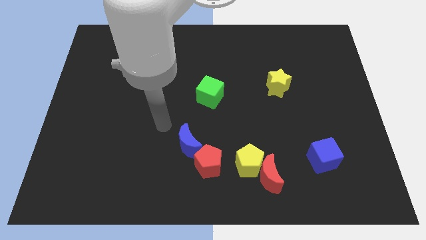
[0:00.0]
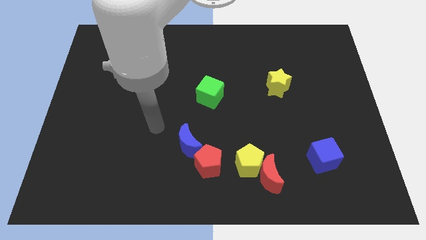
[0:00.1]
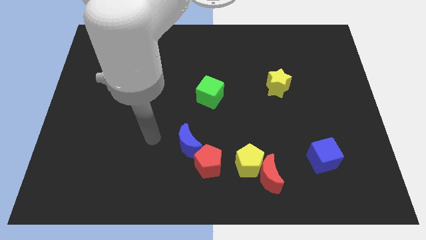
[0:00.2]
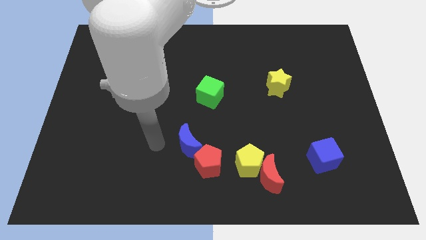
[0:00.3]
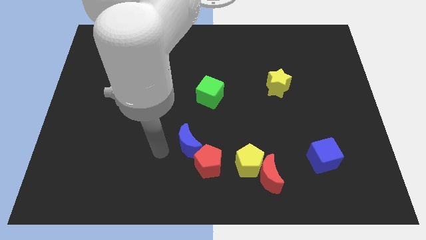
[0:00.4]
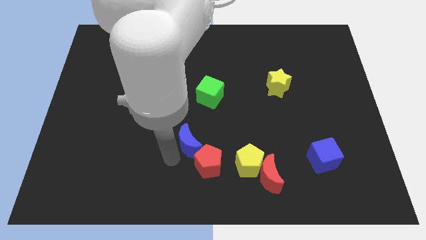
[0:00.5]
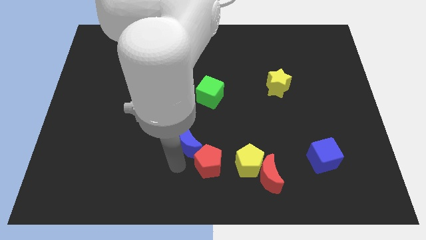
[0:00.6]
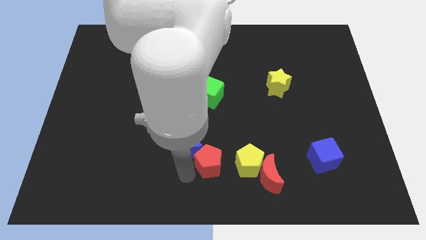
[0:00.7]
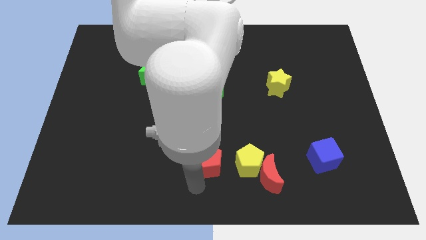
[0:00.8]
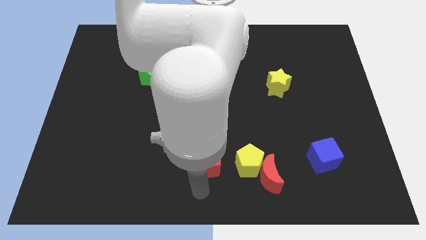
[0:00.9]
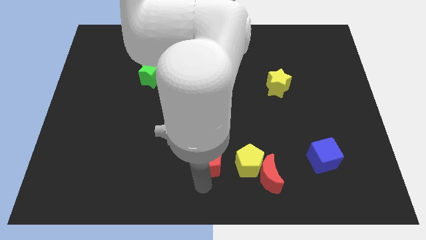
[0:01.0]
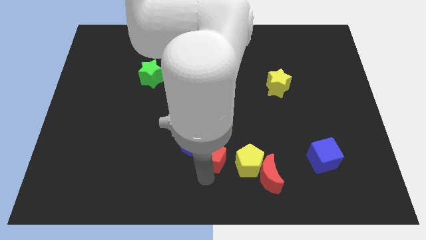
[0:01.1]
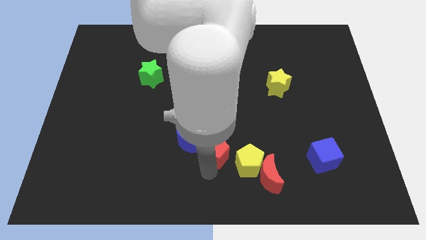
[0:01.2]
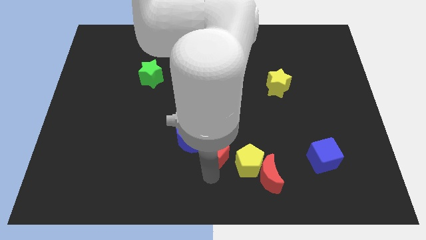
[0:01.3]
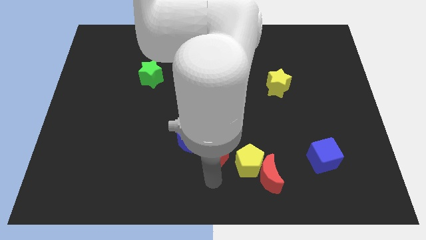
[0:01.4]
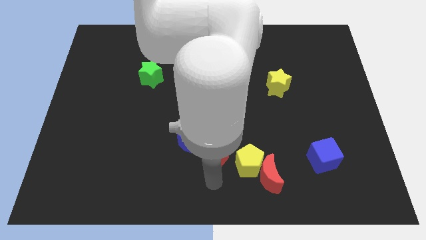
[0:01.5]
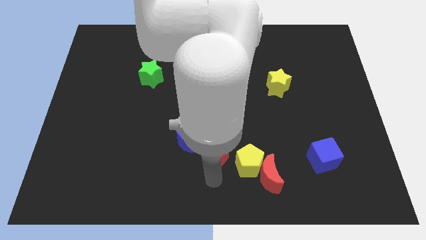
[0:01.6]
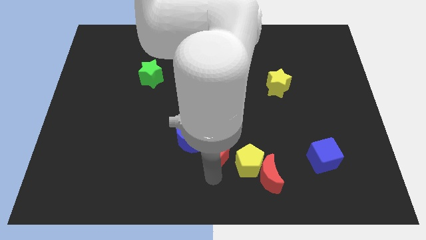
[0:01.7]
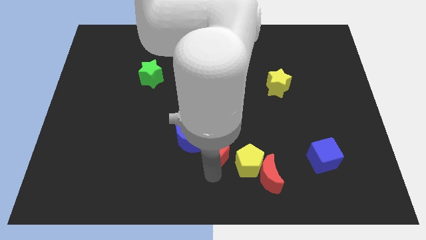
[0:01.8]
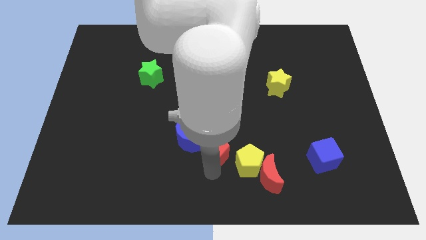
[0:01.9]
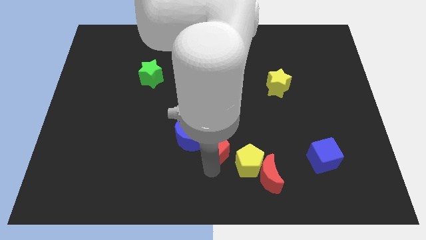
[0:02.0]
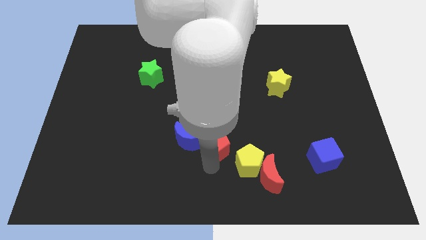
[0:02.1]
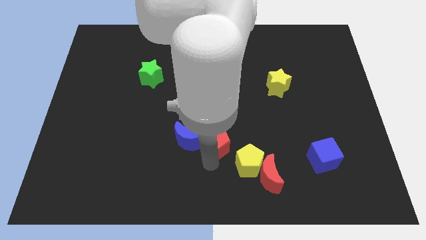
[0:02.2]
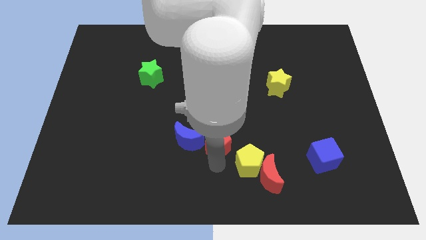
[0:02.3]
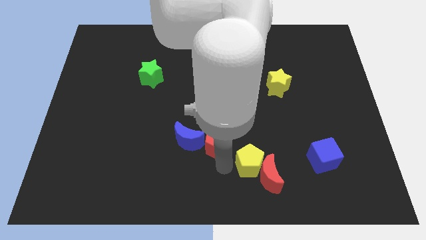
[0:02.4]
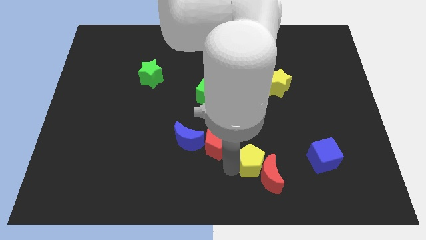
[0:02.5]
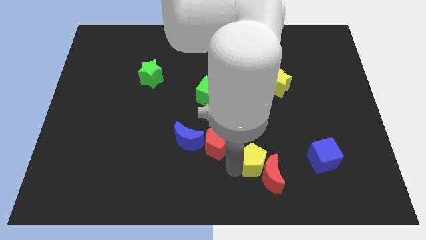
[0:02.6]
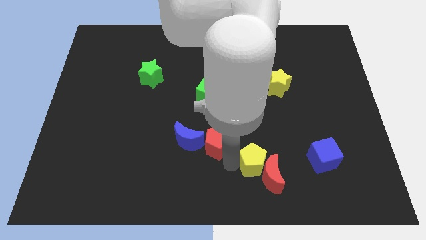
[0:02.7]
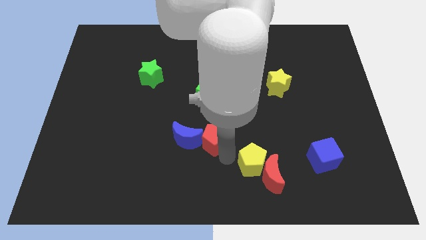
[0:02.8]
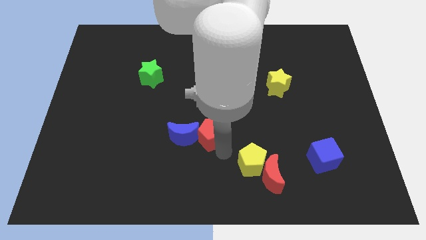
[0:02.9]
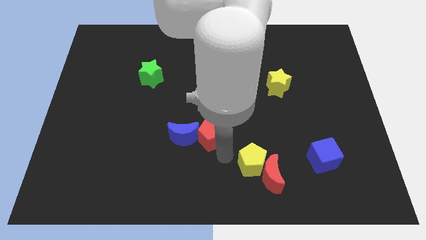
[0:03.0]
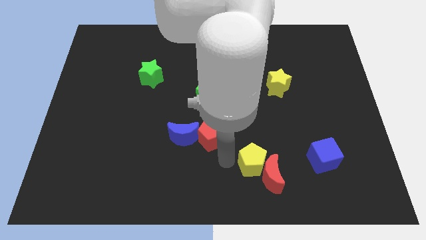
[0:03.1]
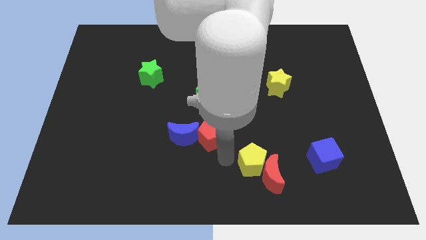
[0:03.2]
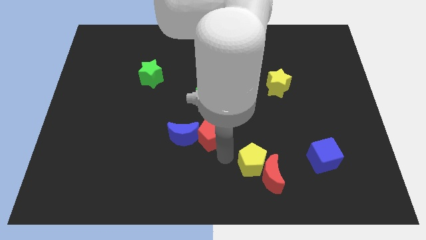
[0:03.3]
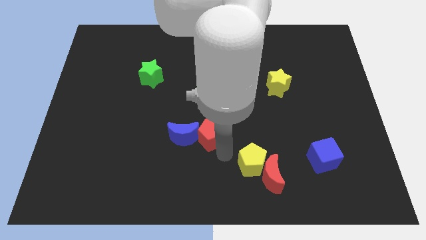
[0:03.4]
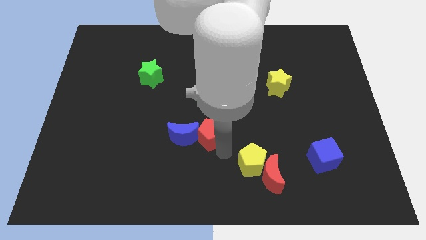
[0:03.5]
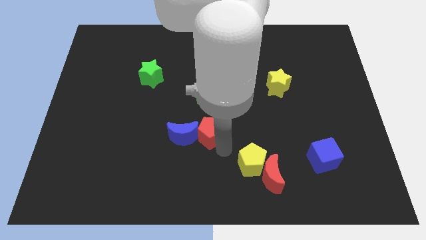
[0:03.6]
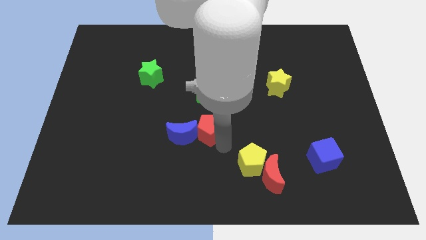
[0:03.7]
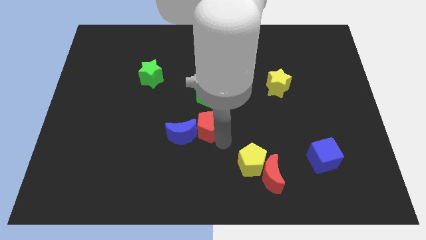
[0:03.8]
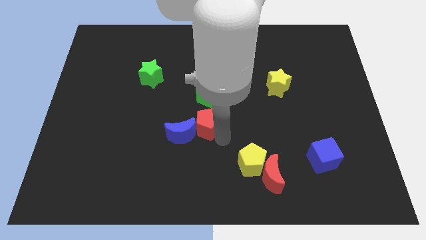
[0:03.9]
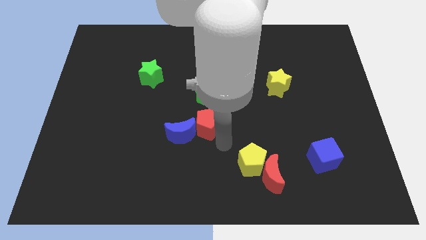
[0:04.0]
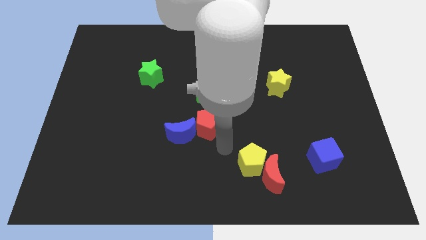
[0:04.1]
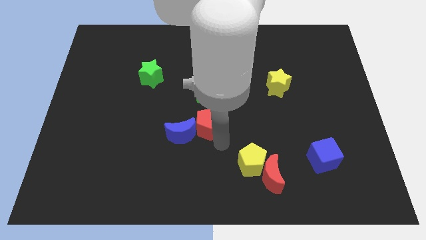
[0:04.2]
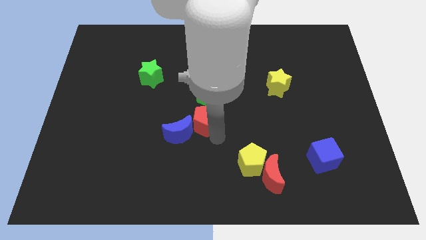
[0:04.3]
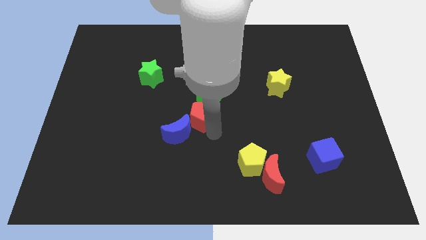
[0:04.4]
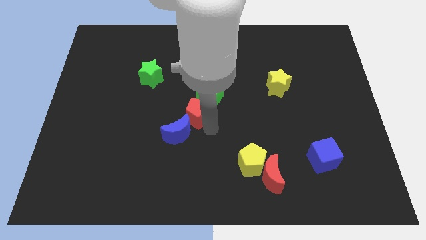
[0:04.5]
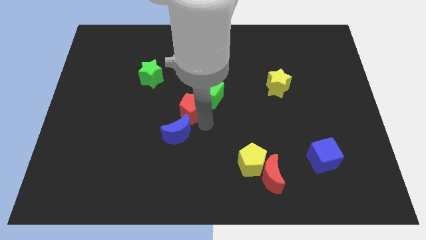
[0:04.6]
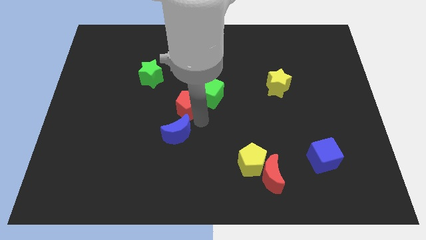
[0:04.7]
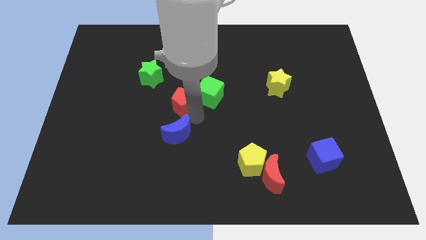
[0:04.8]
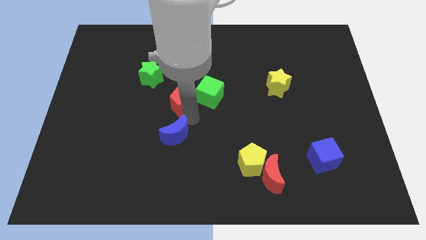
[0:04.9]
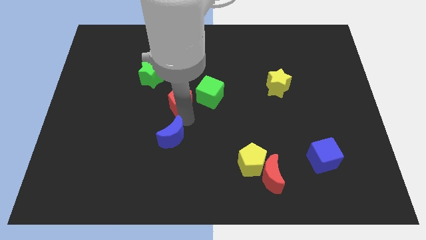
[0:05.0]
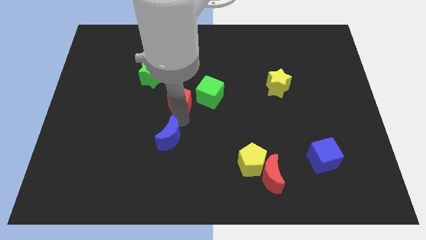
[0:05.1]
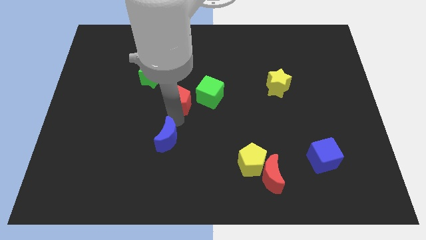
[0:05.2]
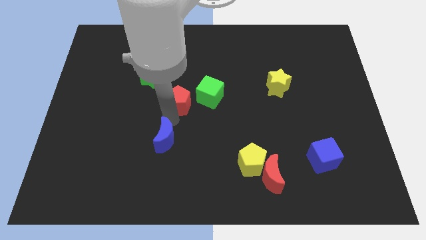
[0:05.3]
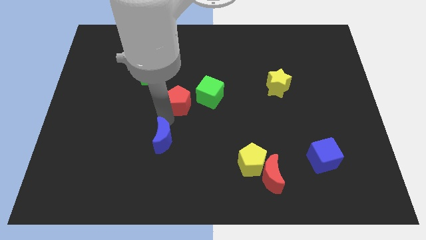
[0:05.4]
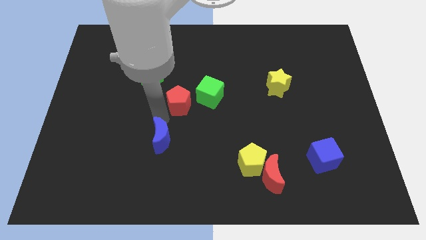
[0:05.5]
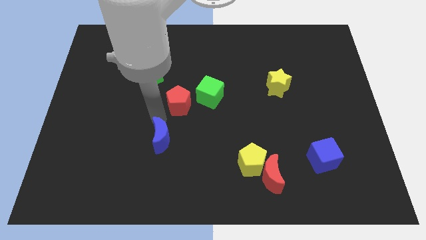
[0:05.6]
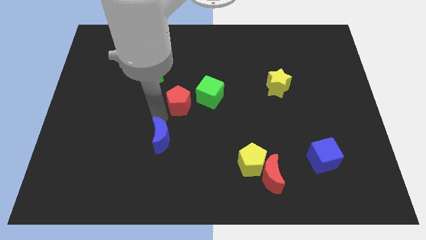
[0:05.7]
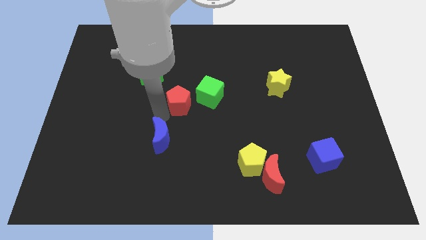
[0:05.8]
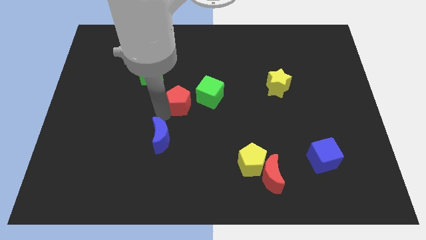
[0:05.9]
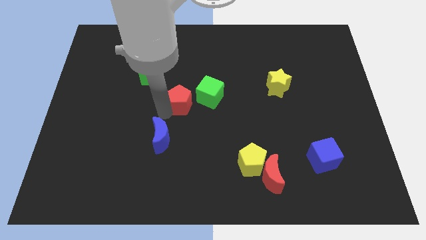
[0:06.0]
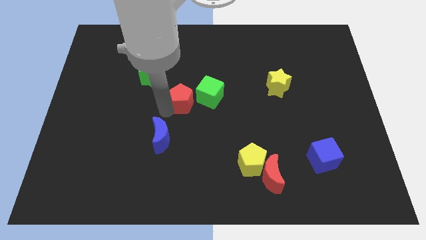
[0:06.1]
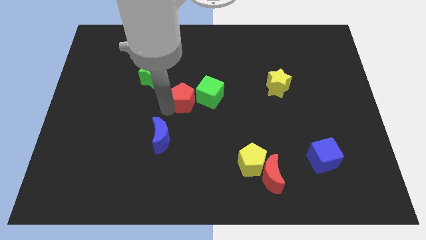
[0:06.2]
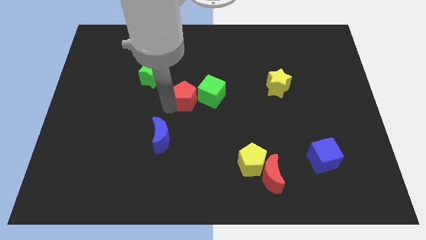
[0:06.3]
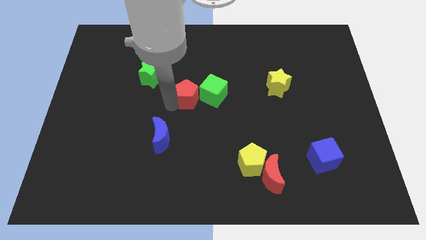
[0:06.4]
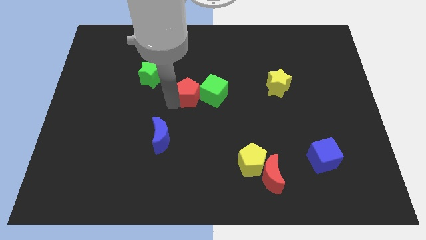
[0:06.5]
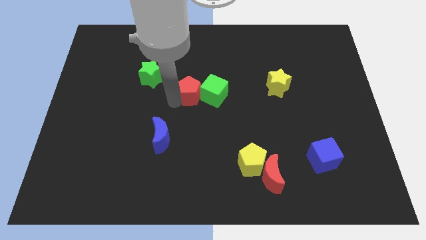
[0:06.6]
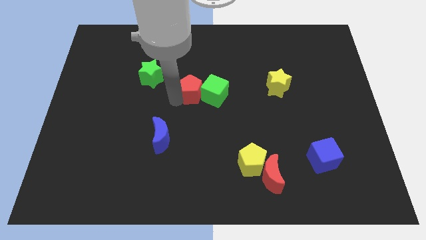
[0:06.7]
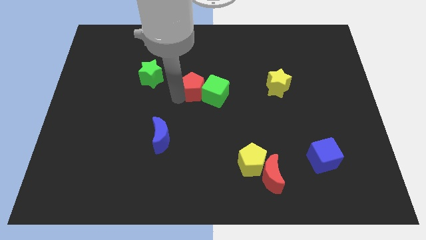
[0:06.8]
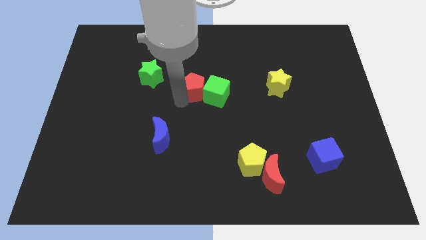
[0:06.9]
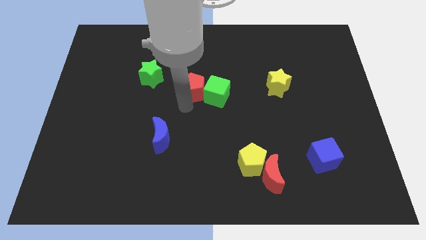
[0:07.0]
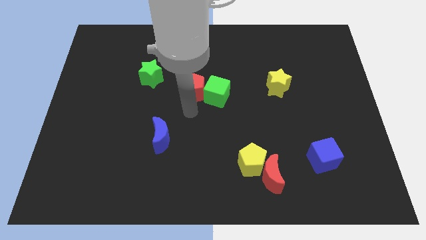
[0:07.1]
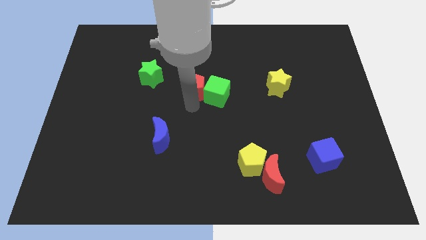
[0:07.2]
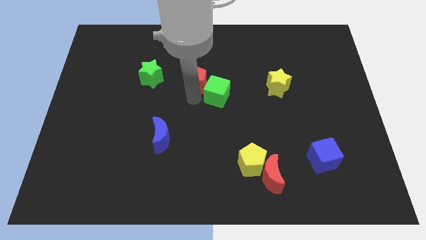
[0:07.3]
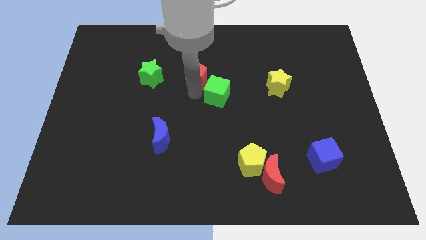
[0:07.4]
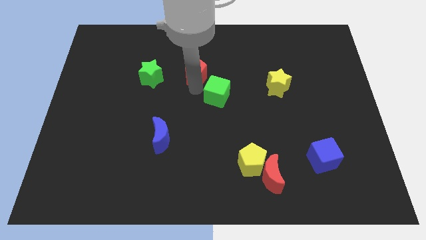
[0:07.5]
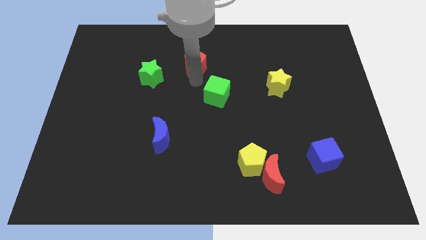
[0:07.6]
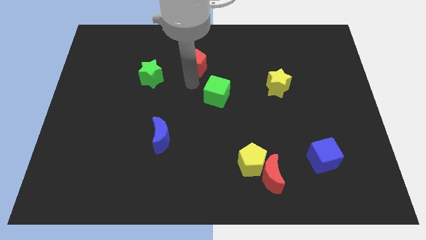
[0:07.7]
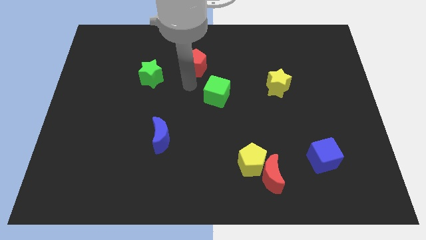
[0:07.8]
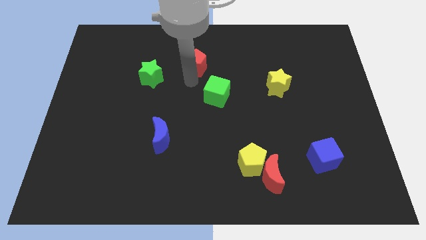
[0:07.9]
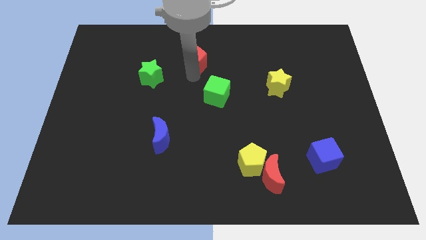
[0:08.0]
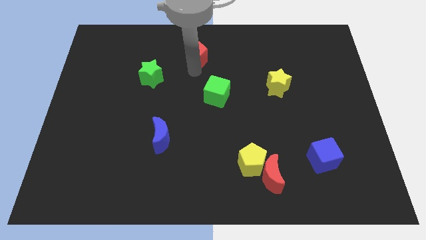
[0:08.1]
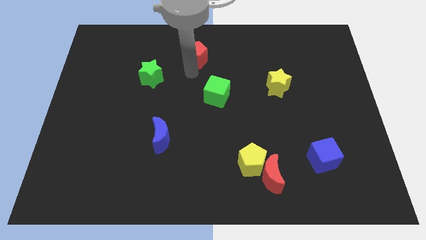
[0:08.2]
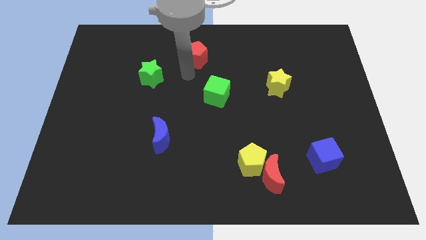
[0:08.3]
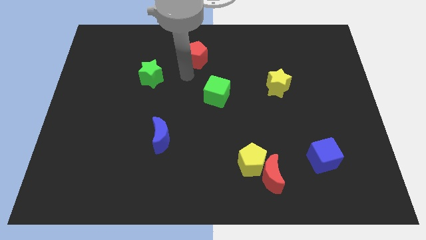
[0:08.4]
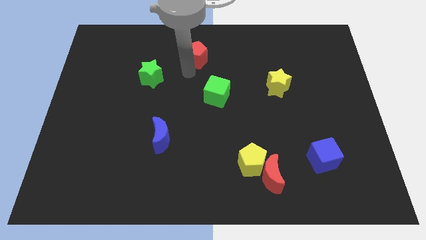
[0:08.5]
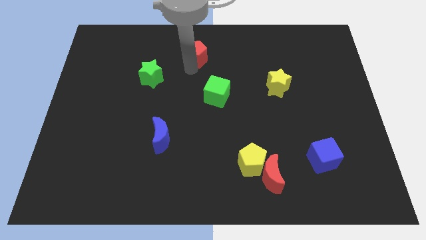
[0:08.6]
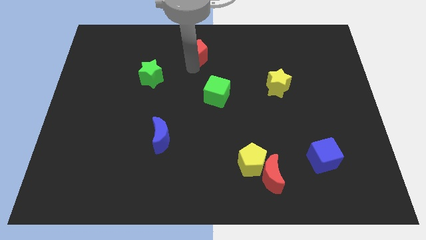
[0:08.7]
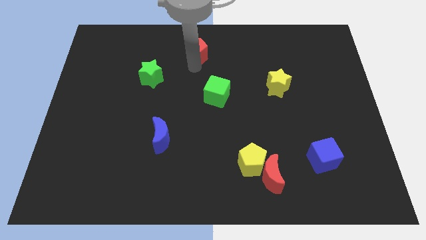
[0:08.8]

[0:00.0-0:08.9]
move the red pentagon to the top
